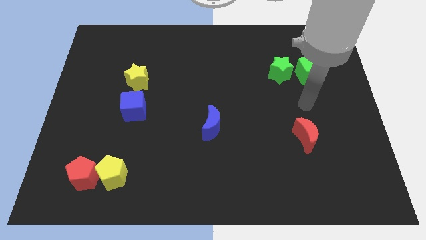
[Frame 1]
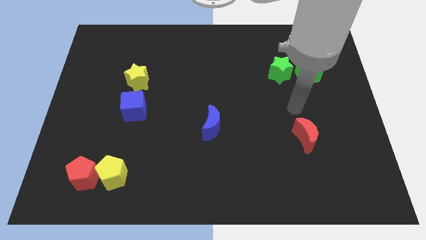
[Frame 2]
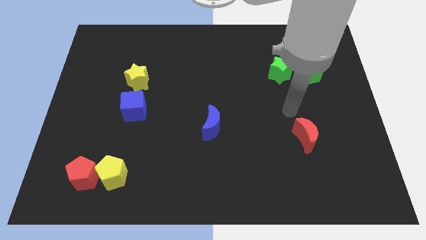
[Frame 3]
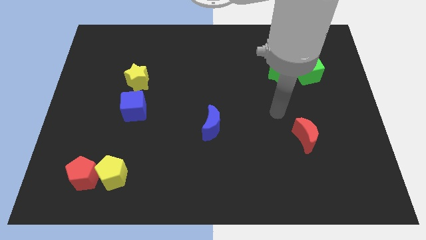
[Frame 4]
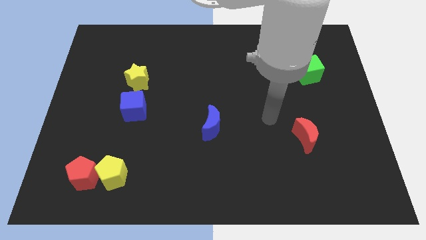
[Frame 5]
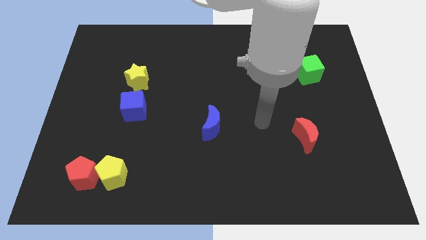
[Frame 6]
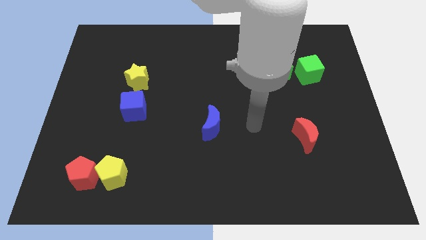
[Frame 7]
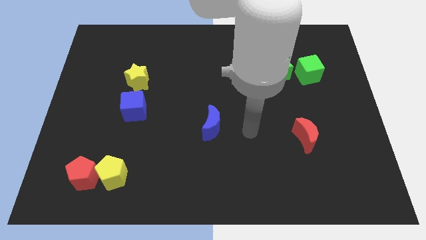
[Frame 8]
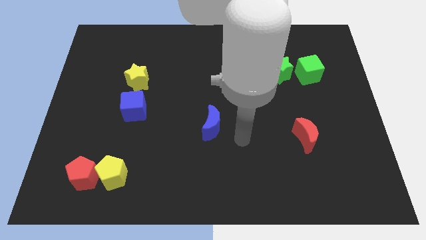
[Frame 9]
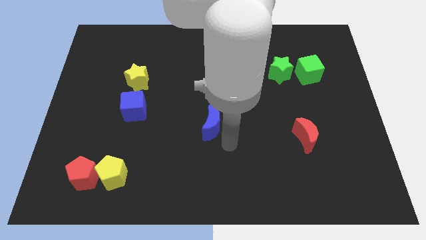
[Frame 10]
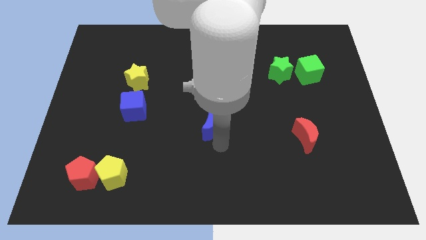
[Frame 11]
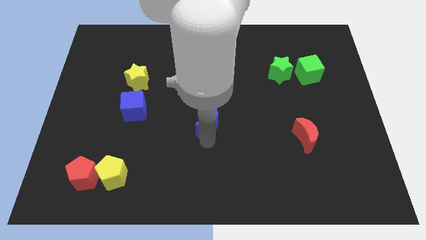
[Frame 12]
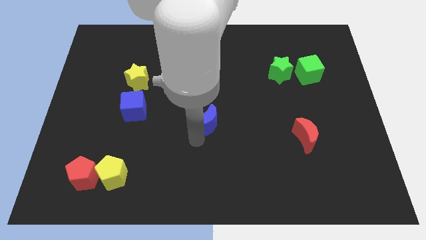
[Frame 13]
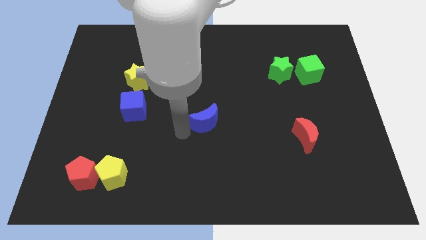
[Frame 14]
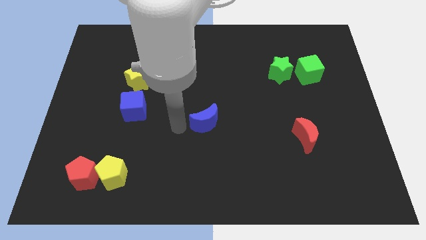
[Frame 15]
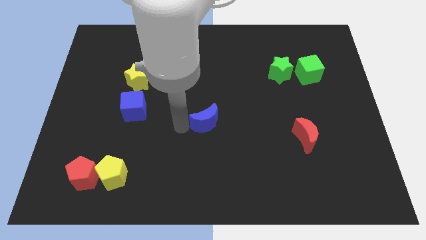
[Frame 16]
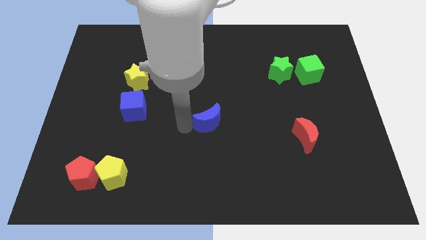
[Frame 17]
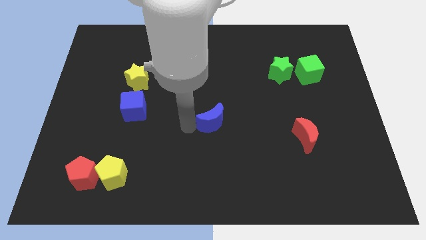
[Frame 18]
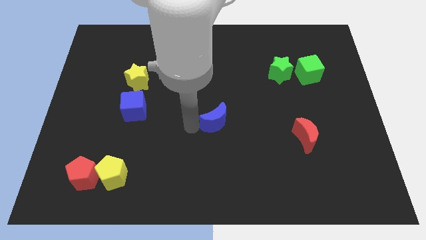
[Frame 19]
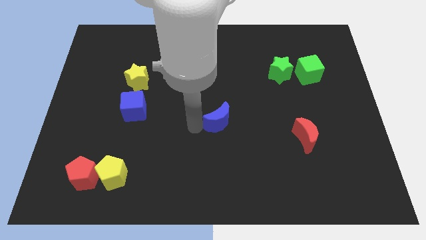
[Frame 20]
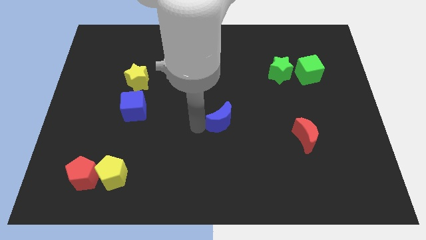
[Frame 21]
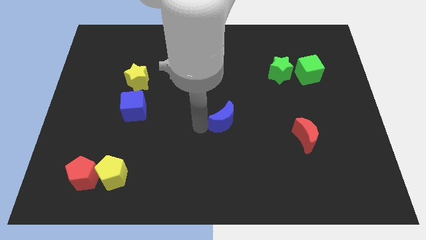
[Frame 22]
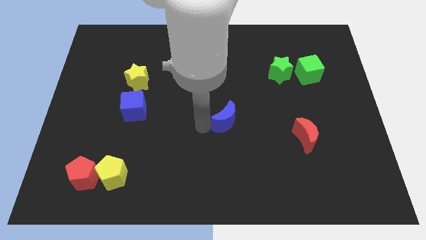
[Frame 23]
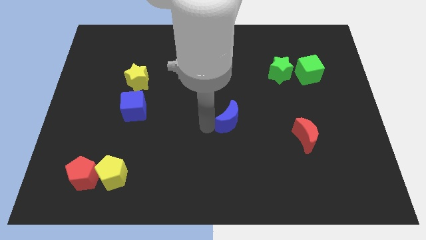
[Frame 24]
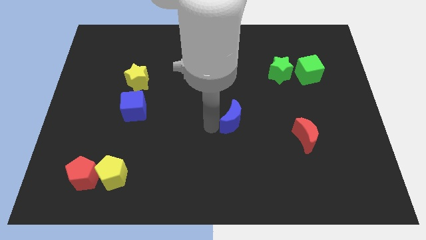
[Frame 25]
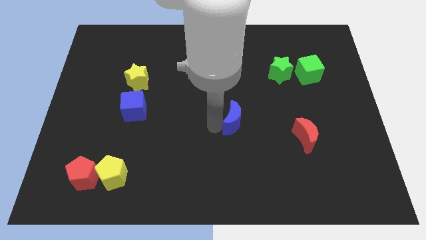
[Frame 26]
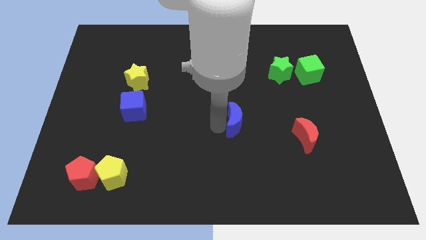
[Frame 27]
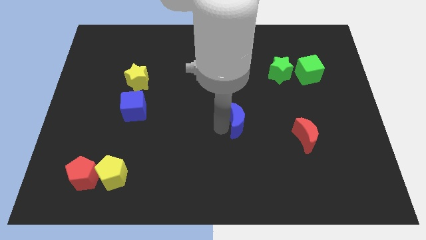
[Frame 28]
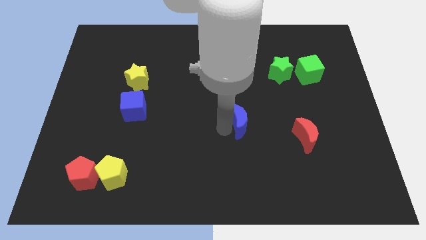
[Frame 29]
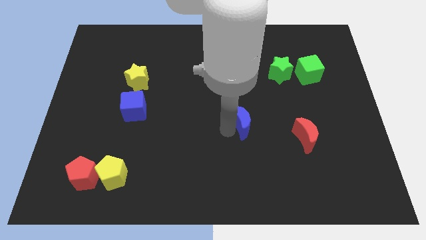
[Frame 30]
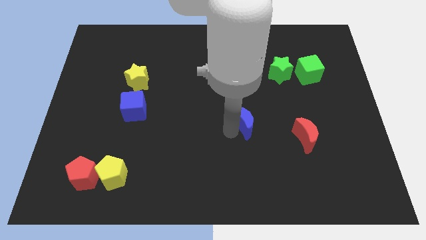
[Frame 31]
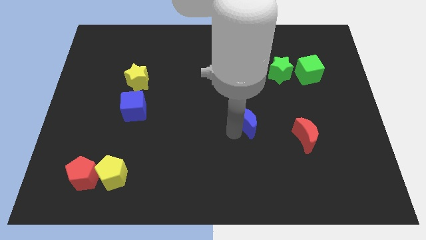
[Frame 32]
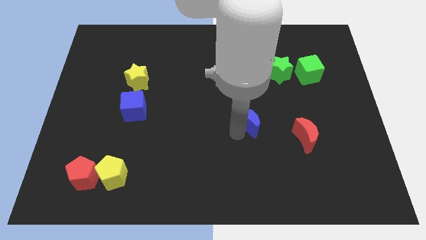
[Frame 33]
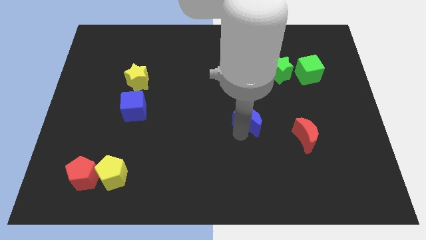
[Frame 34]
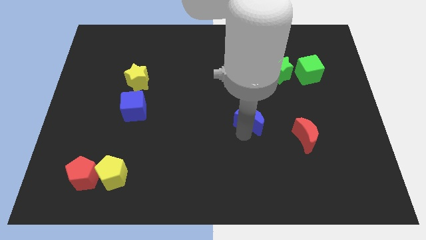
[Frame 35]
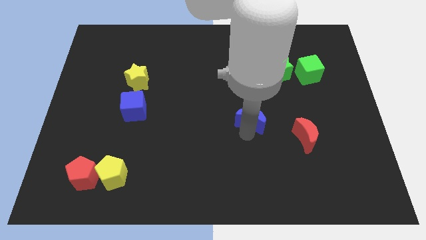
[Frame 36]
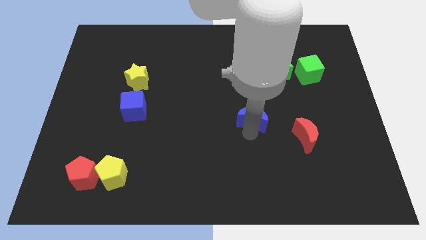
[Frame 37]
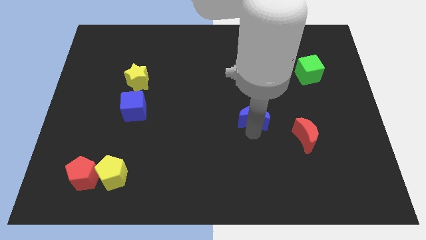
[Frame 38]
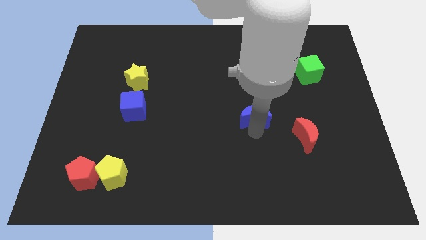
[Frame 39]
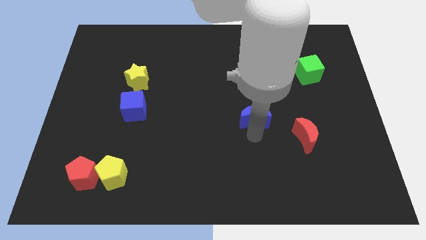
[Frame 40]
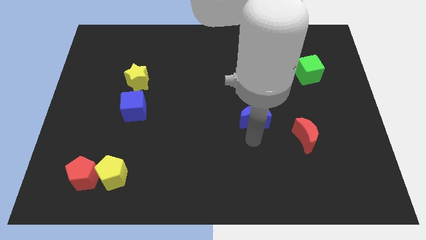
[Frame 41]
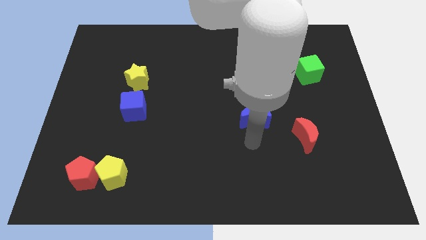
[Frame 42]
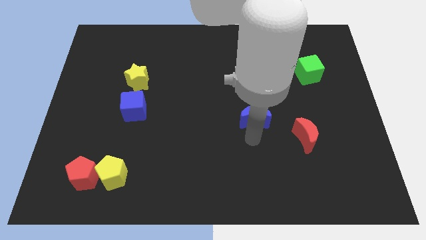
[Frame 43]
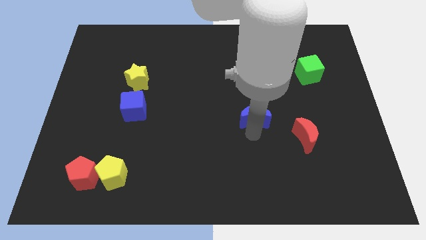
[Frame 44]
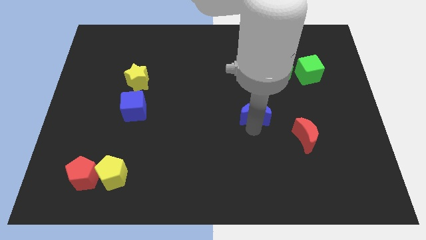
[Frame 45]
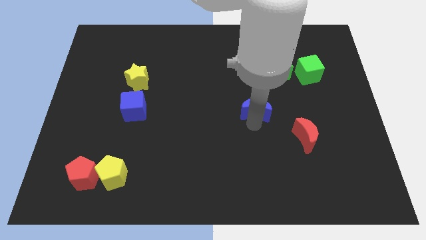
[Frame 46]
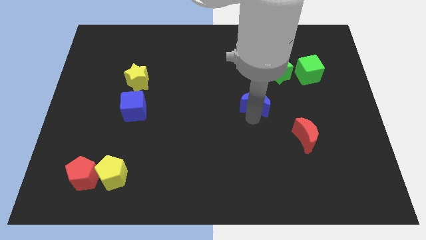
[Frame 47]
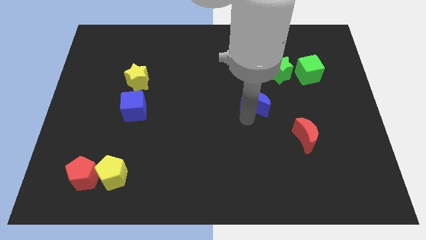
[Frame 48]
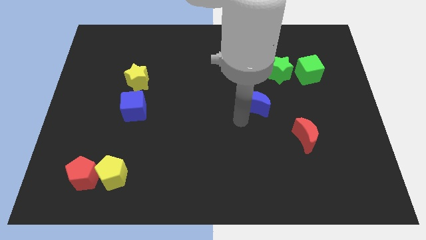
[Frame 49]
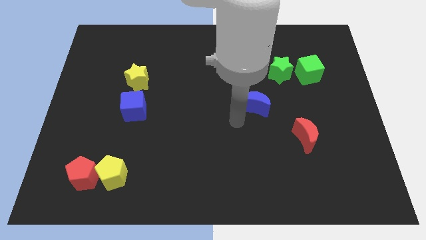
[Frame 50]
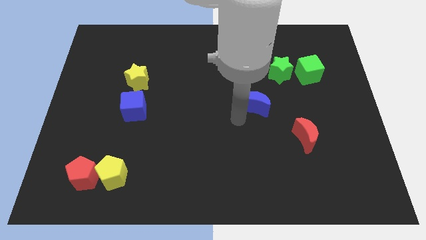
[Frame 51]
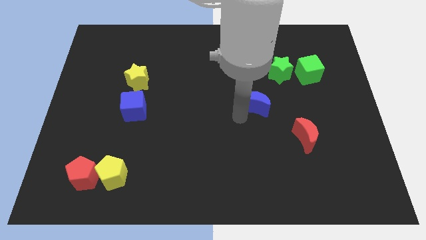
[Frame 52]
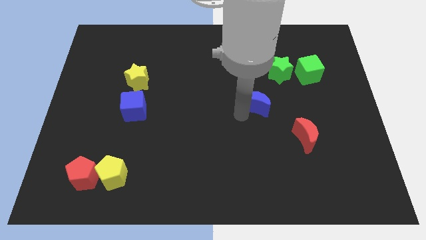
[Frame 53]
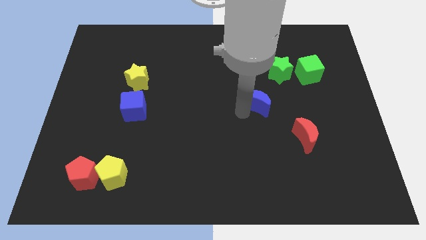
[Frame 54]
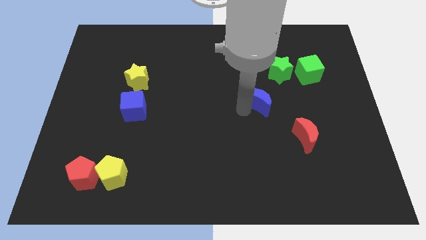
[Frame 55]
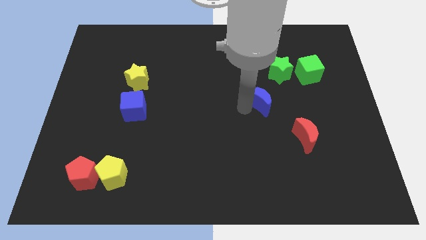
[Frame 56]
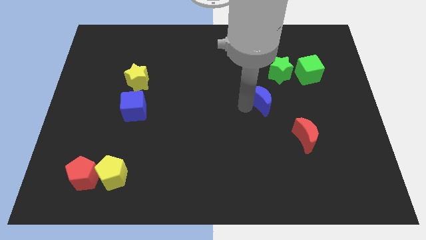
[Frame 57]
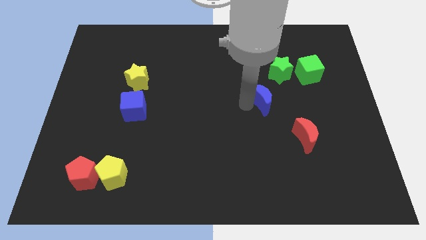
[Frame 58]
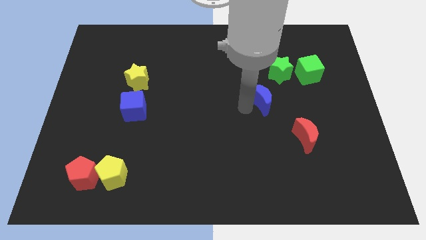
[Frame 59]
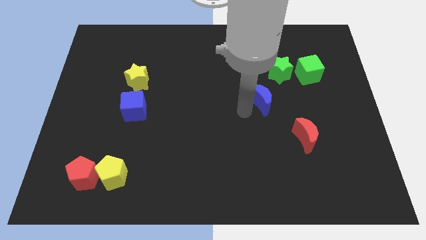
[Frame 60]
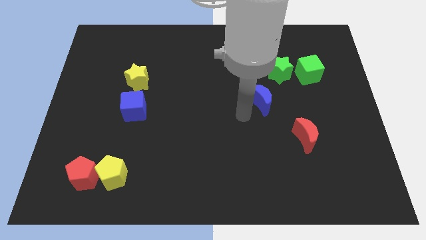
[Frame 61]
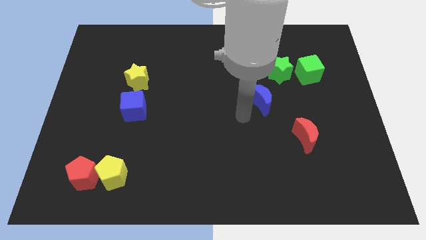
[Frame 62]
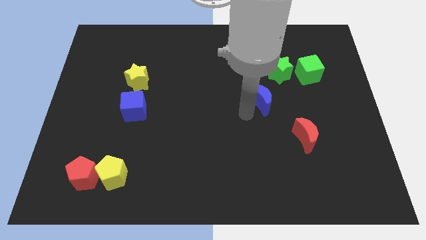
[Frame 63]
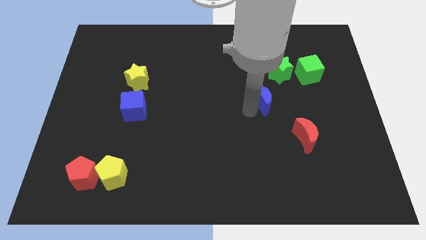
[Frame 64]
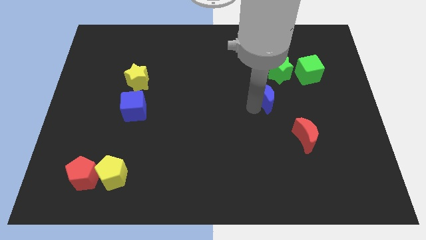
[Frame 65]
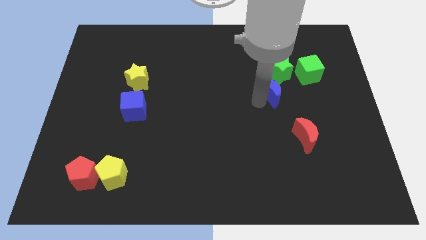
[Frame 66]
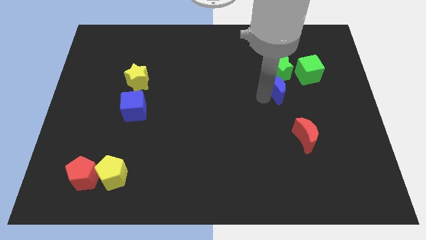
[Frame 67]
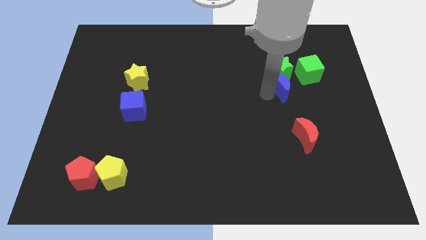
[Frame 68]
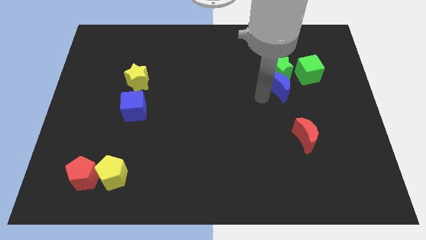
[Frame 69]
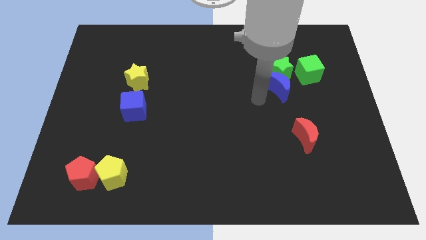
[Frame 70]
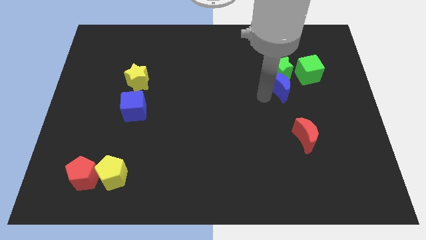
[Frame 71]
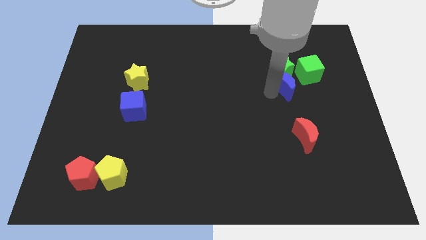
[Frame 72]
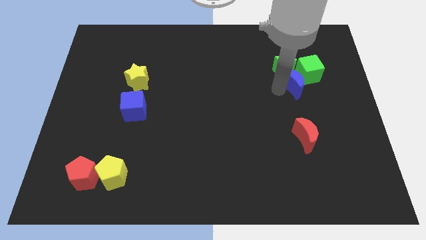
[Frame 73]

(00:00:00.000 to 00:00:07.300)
put the blue moon close to the green cube
